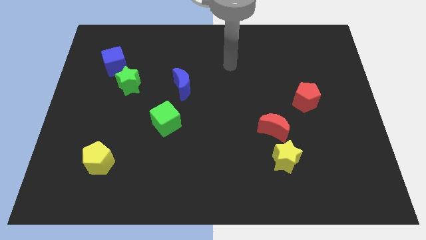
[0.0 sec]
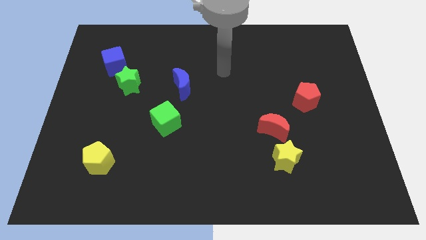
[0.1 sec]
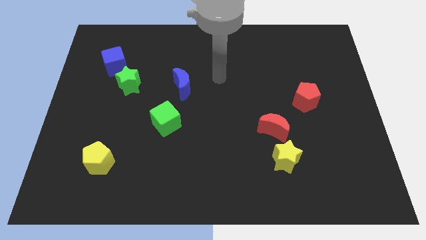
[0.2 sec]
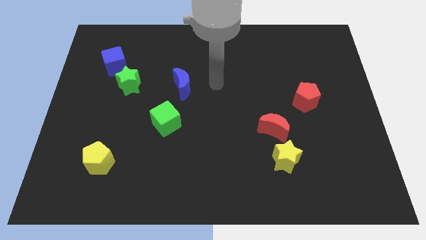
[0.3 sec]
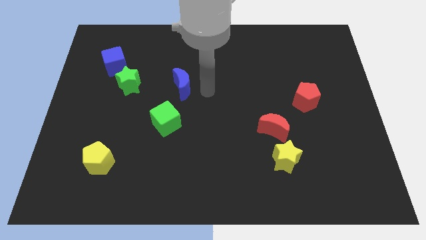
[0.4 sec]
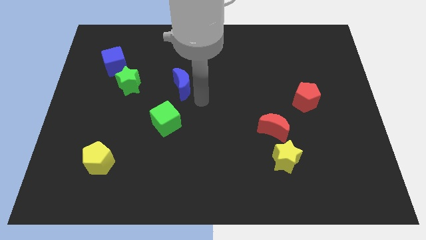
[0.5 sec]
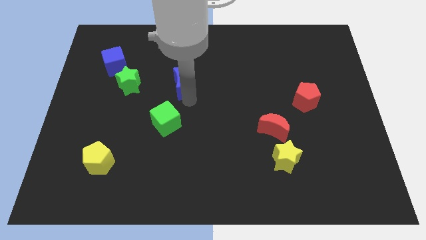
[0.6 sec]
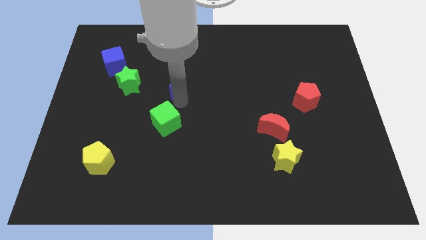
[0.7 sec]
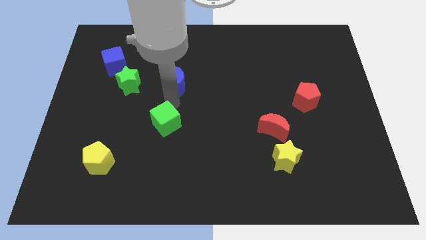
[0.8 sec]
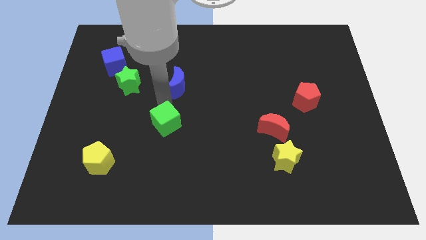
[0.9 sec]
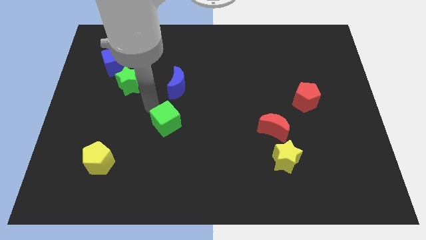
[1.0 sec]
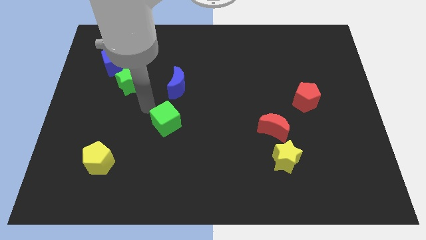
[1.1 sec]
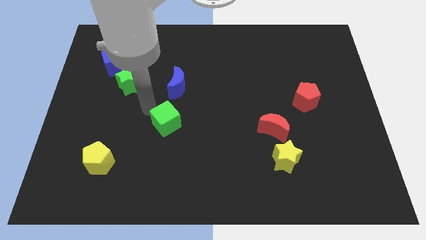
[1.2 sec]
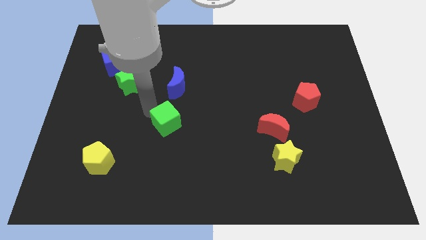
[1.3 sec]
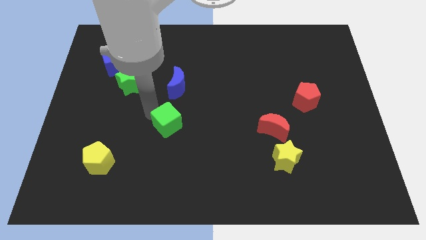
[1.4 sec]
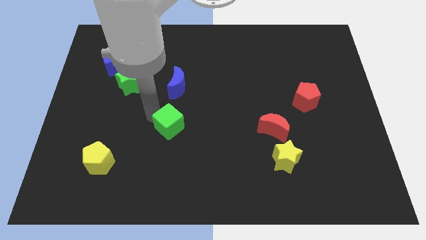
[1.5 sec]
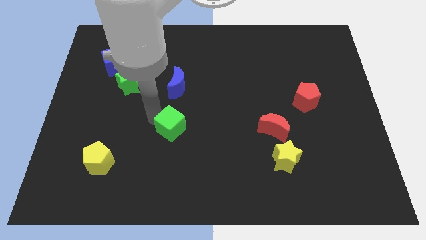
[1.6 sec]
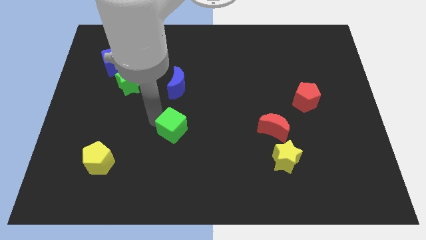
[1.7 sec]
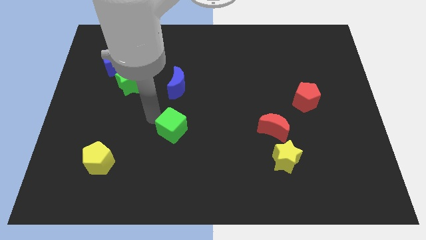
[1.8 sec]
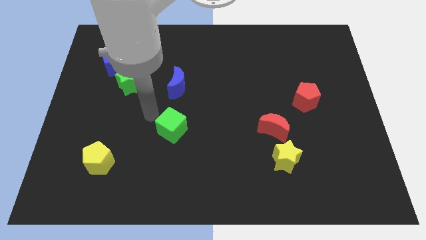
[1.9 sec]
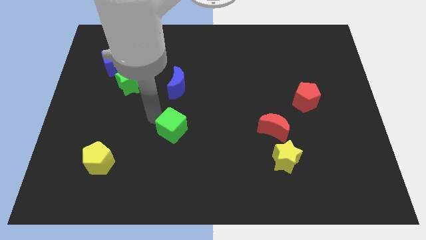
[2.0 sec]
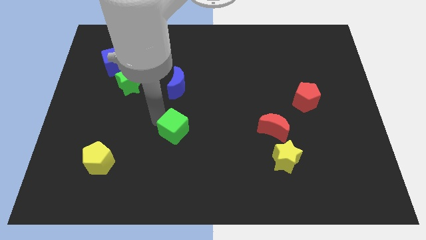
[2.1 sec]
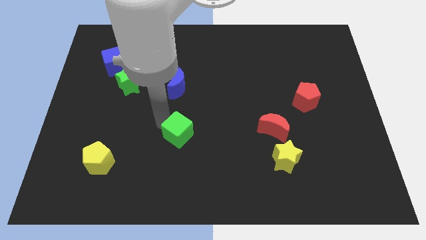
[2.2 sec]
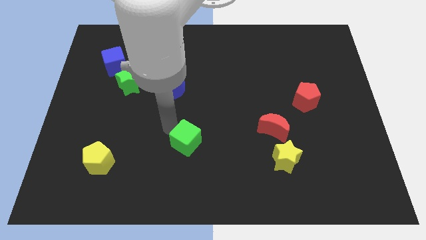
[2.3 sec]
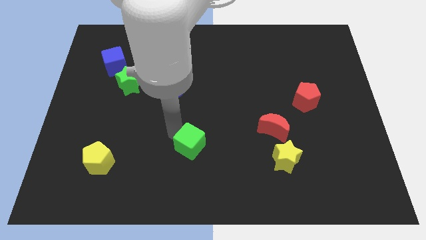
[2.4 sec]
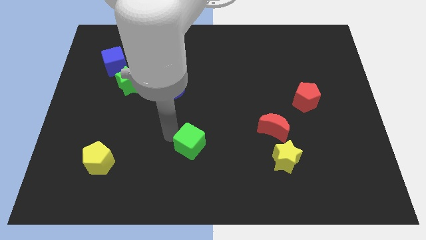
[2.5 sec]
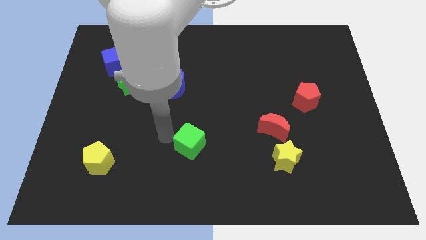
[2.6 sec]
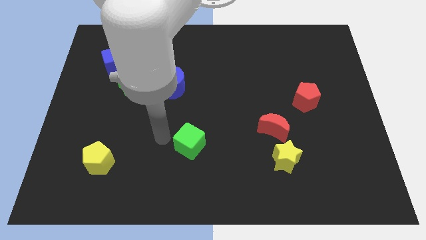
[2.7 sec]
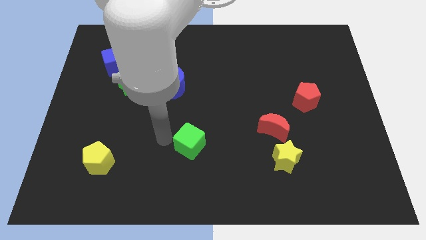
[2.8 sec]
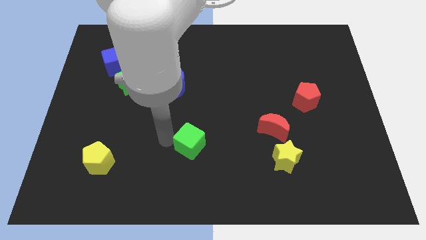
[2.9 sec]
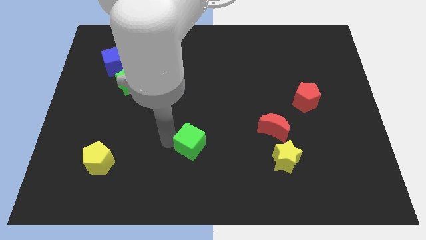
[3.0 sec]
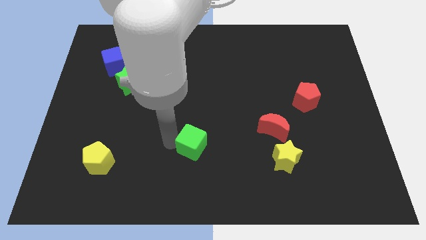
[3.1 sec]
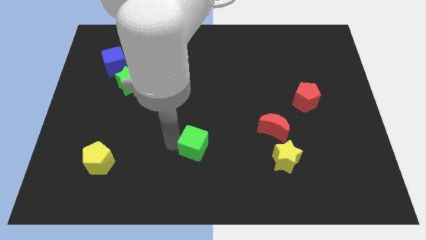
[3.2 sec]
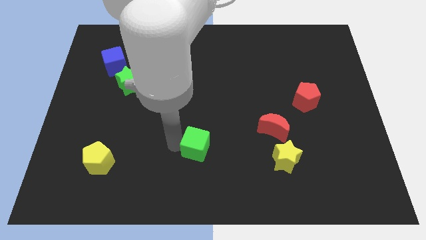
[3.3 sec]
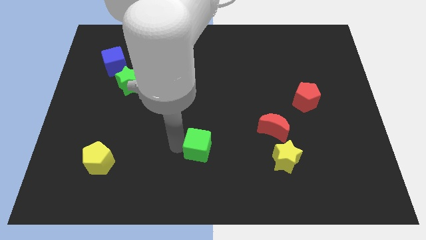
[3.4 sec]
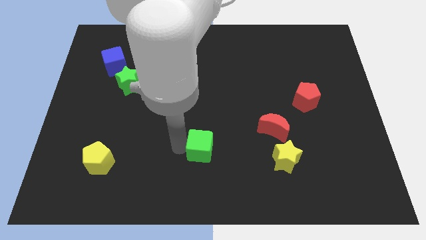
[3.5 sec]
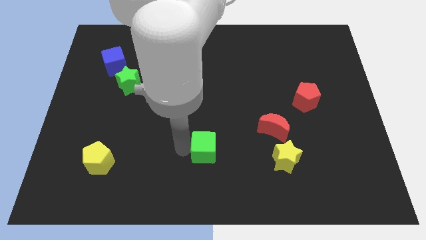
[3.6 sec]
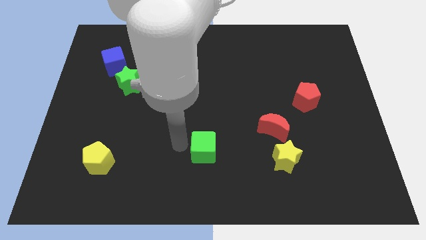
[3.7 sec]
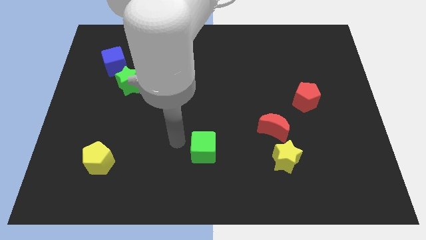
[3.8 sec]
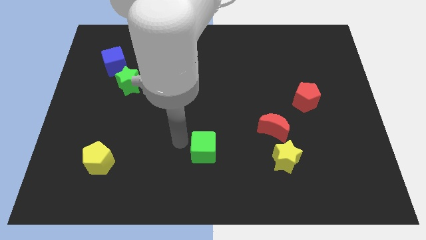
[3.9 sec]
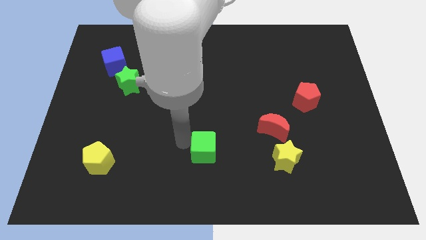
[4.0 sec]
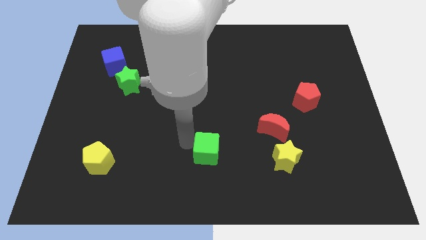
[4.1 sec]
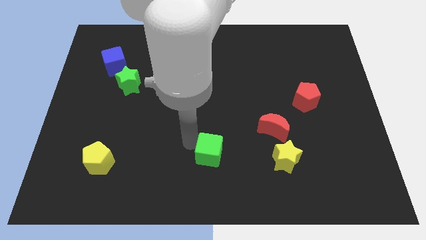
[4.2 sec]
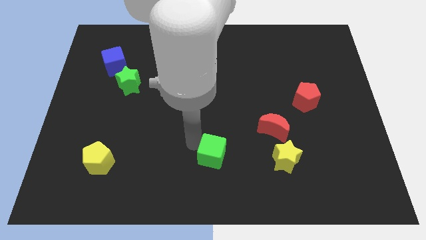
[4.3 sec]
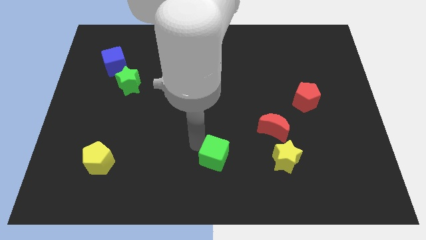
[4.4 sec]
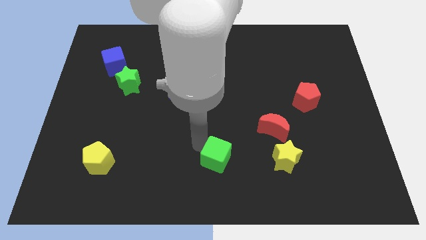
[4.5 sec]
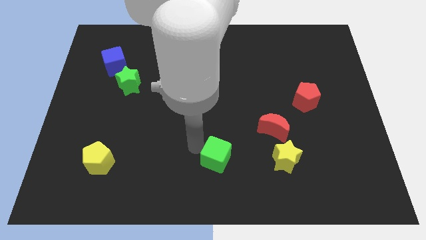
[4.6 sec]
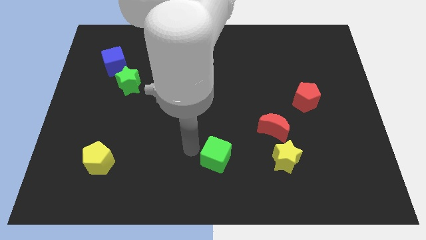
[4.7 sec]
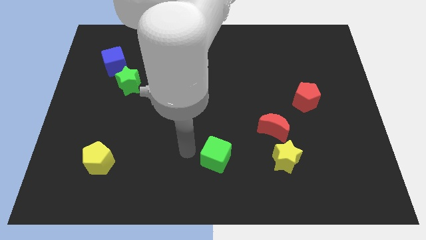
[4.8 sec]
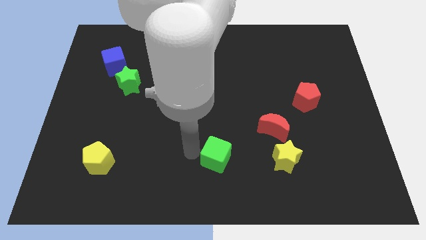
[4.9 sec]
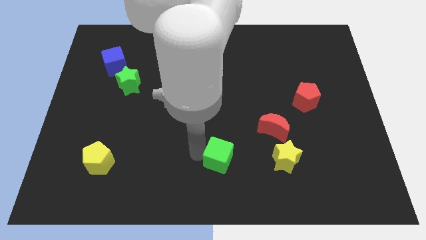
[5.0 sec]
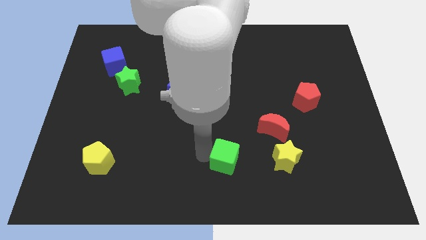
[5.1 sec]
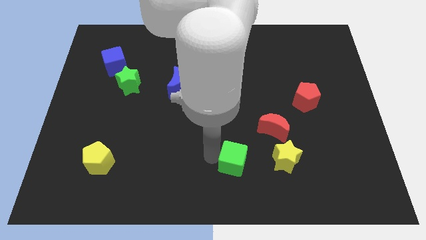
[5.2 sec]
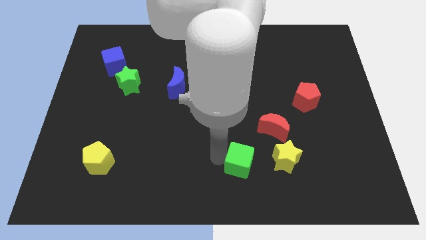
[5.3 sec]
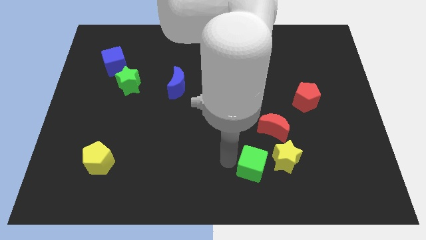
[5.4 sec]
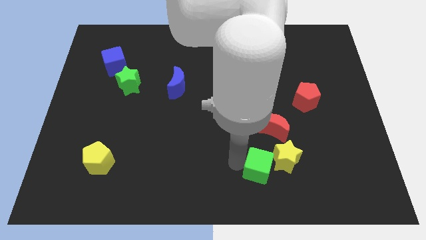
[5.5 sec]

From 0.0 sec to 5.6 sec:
put the green cube to the bottom side of the red moon

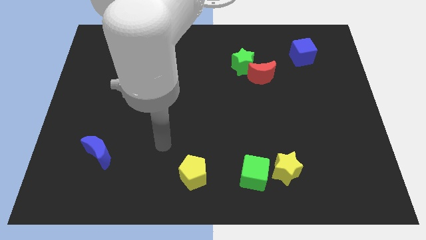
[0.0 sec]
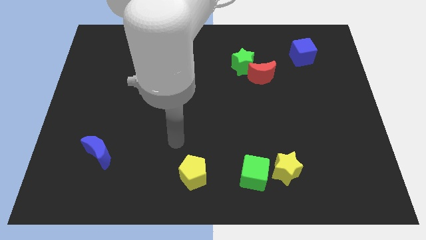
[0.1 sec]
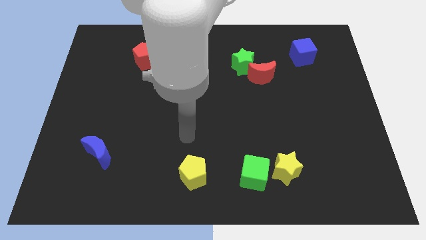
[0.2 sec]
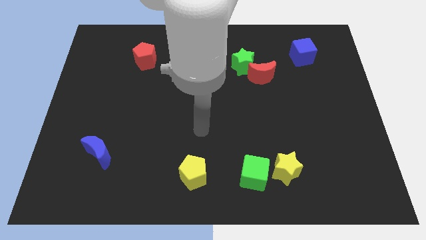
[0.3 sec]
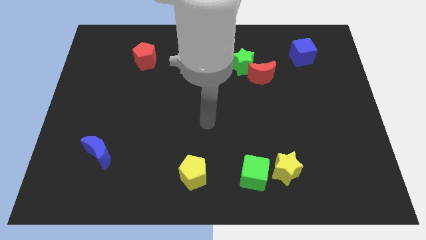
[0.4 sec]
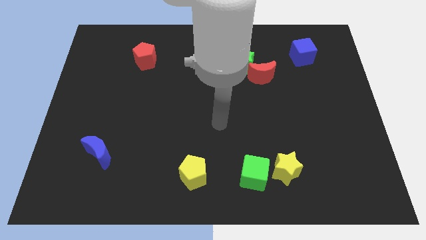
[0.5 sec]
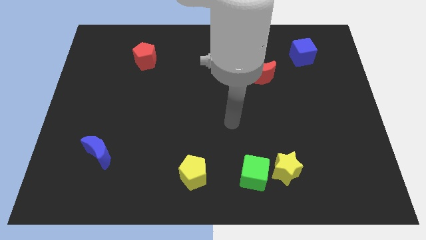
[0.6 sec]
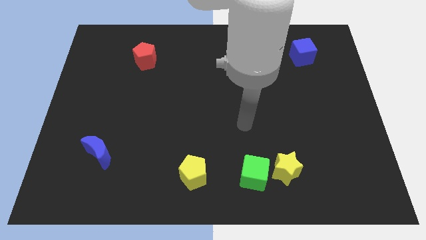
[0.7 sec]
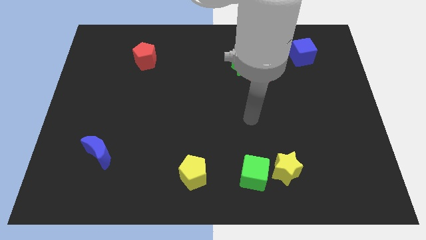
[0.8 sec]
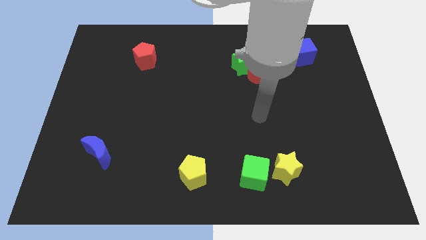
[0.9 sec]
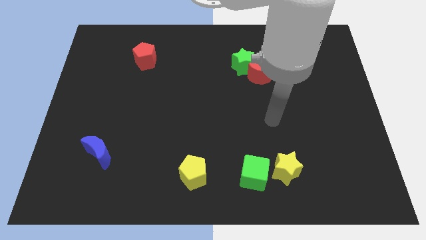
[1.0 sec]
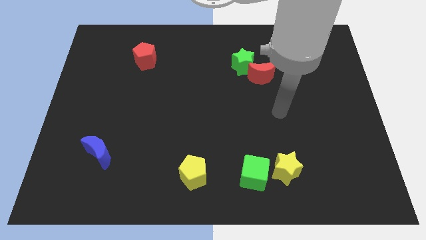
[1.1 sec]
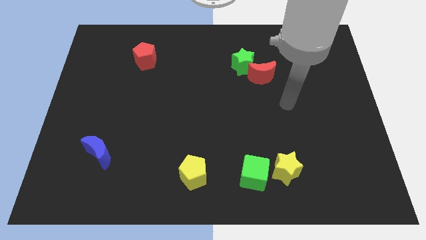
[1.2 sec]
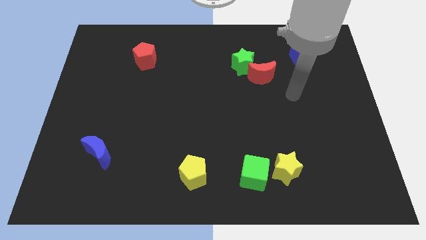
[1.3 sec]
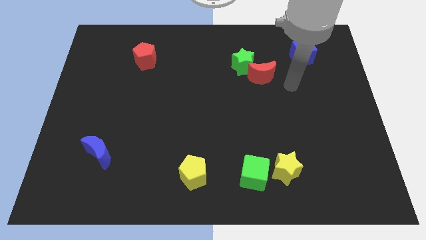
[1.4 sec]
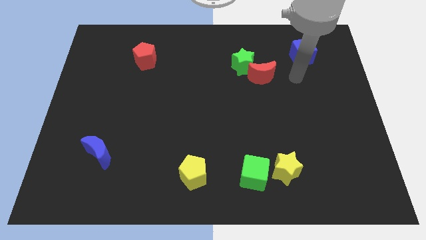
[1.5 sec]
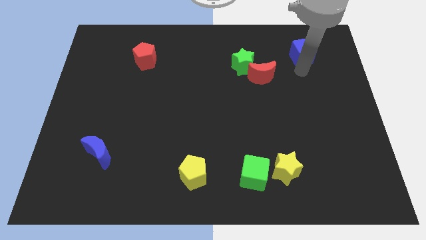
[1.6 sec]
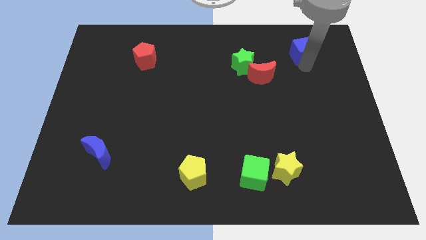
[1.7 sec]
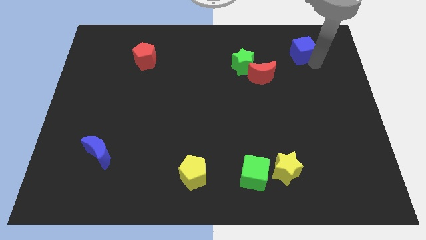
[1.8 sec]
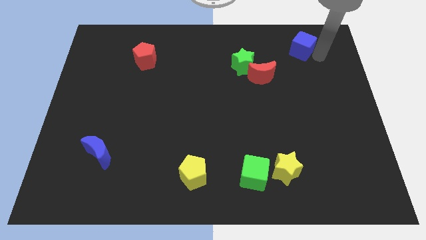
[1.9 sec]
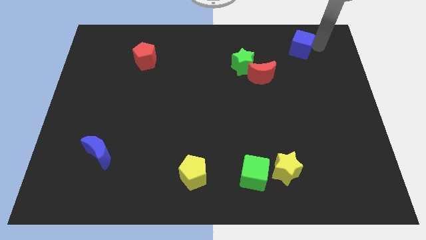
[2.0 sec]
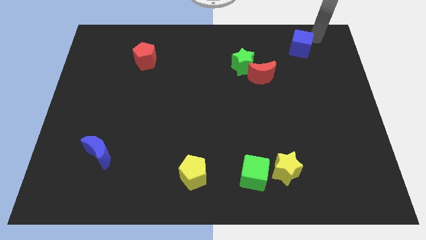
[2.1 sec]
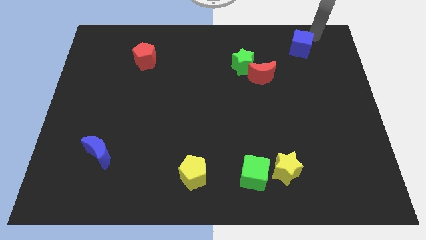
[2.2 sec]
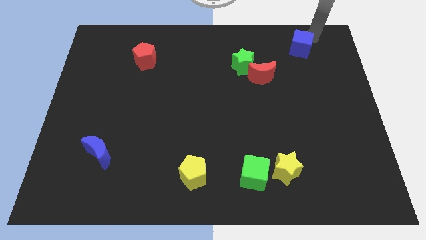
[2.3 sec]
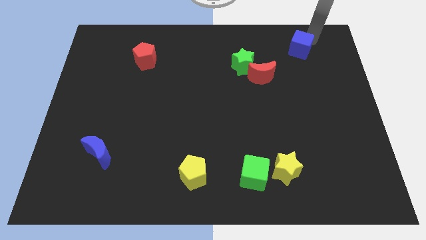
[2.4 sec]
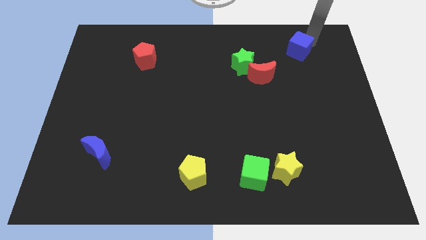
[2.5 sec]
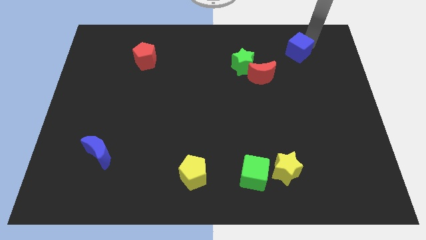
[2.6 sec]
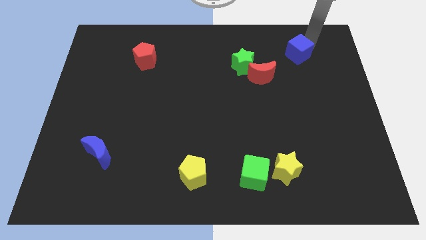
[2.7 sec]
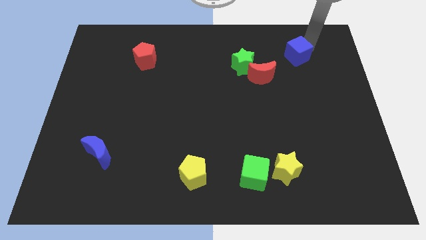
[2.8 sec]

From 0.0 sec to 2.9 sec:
slide the blue cube to the top right side of the red moon
